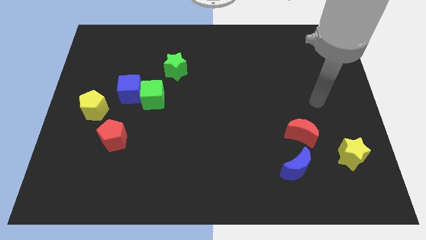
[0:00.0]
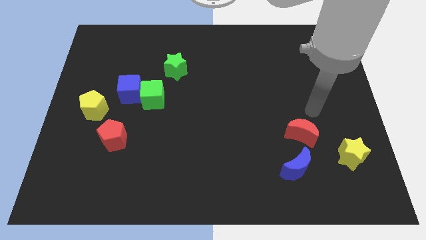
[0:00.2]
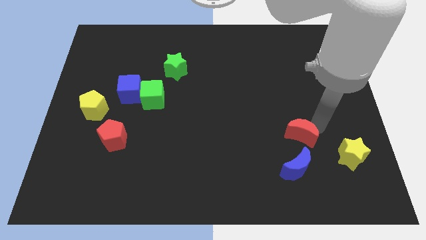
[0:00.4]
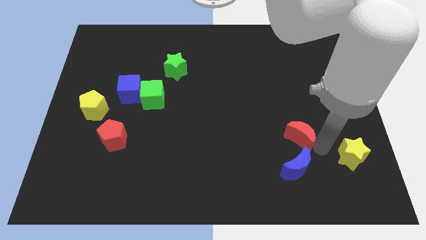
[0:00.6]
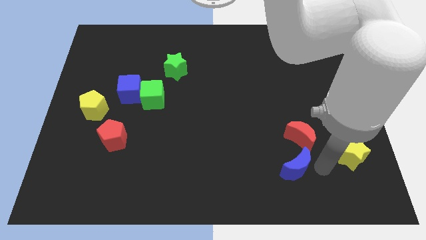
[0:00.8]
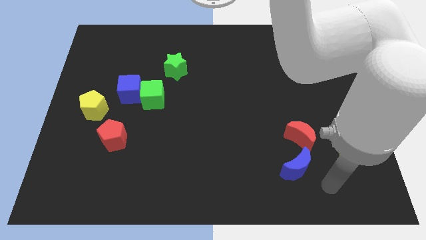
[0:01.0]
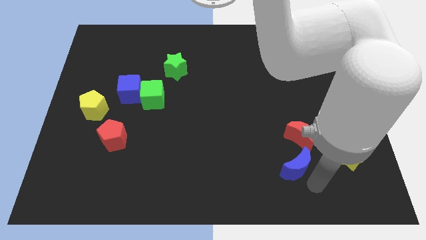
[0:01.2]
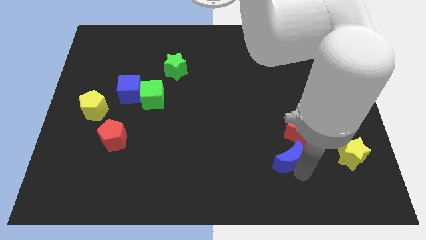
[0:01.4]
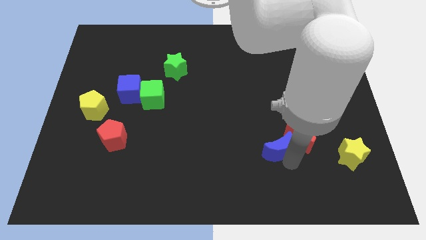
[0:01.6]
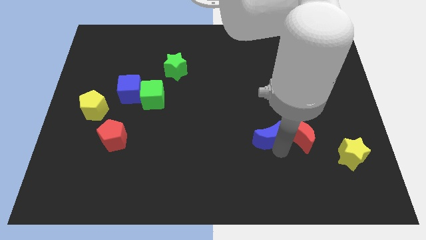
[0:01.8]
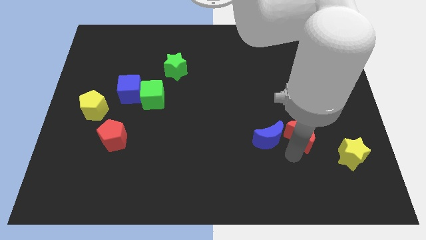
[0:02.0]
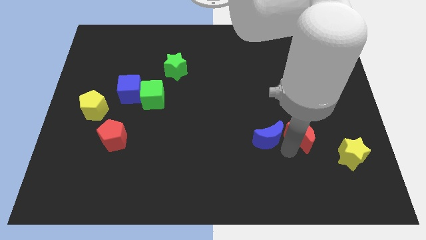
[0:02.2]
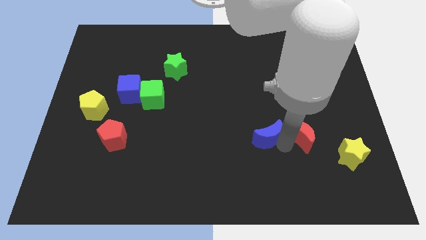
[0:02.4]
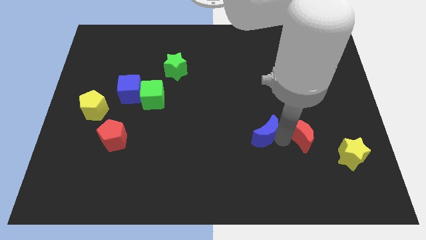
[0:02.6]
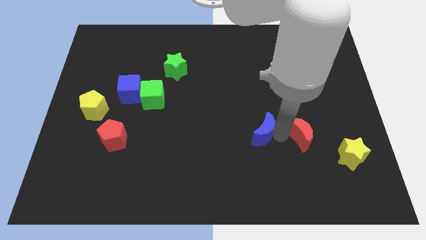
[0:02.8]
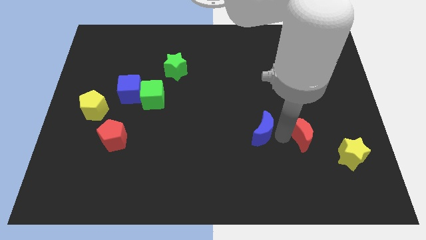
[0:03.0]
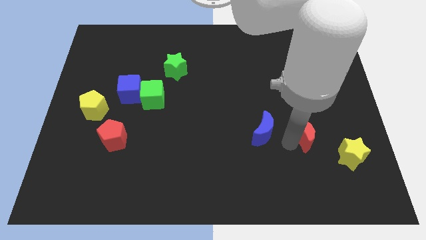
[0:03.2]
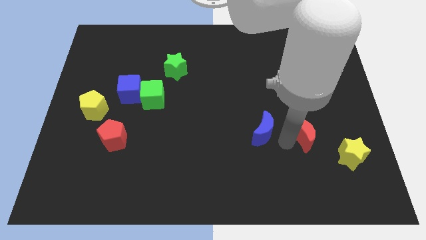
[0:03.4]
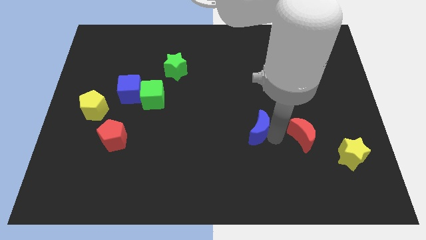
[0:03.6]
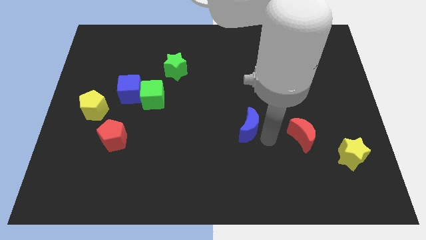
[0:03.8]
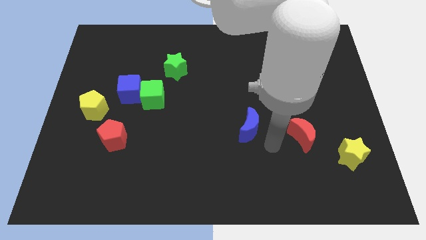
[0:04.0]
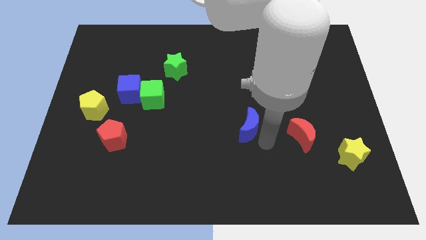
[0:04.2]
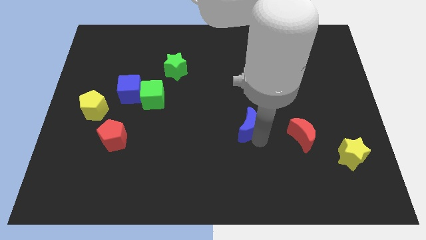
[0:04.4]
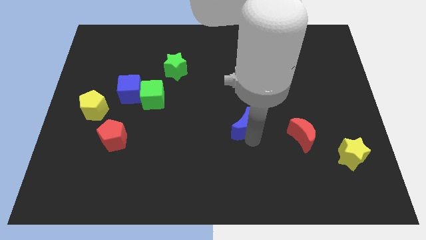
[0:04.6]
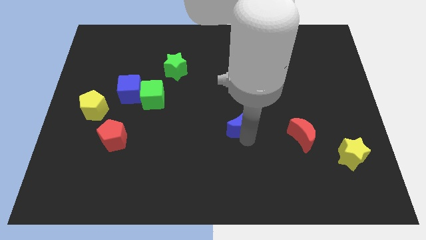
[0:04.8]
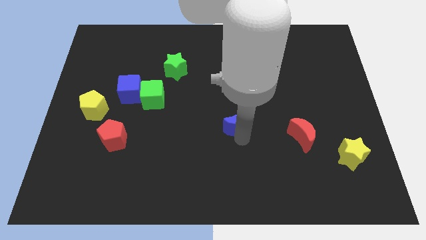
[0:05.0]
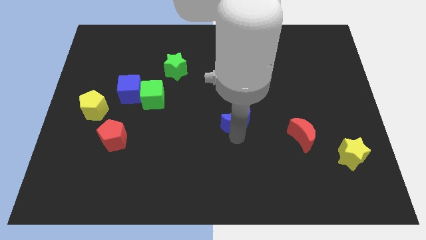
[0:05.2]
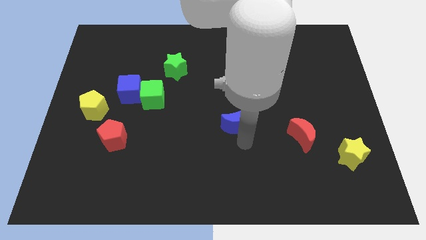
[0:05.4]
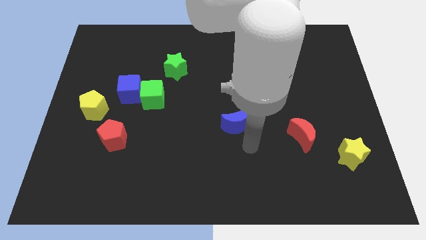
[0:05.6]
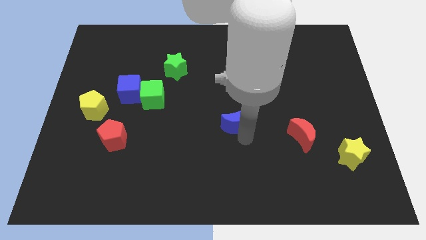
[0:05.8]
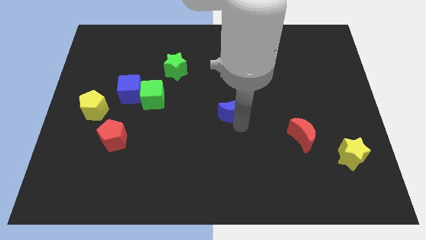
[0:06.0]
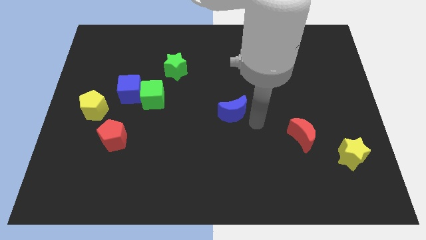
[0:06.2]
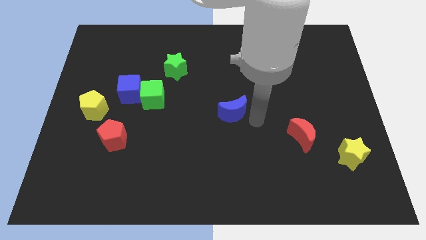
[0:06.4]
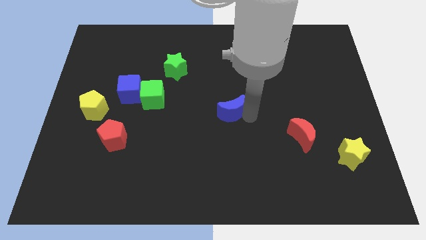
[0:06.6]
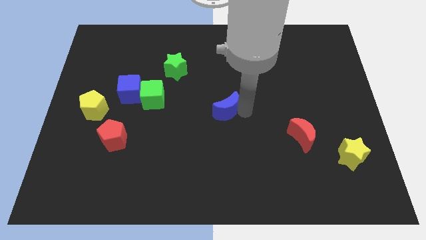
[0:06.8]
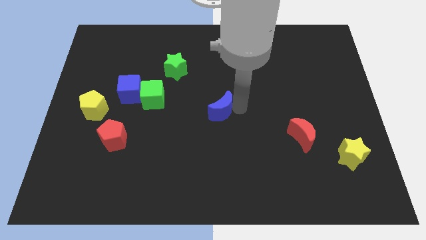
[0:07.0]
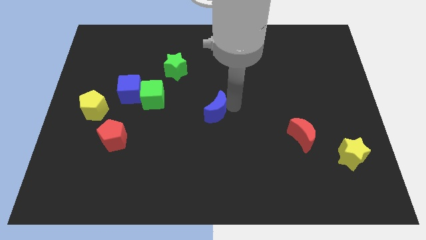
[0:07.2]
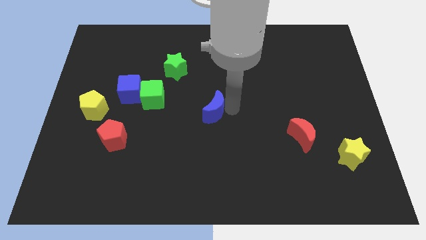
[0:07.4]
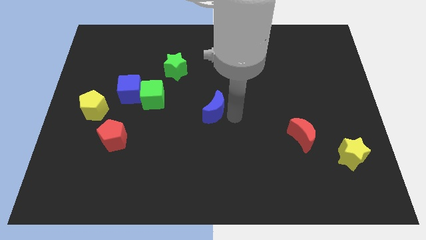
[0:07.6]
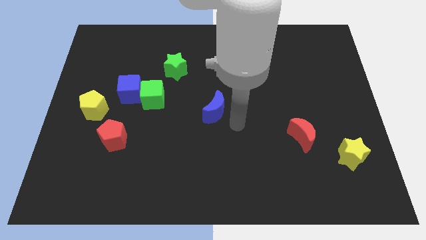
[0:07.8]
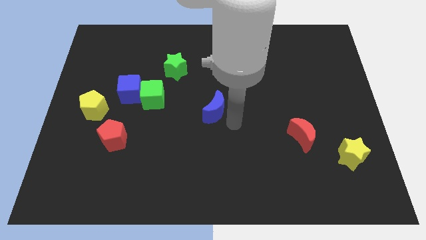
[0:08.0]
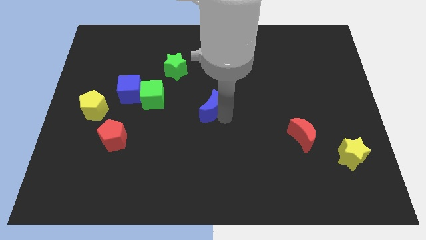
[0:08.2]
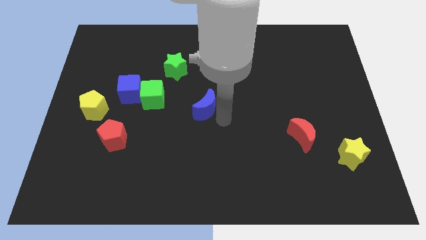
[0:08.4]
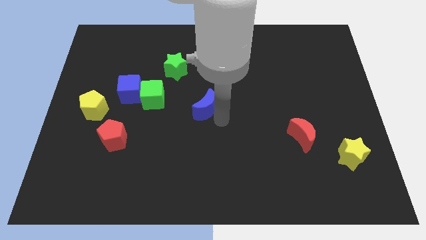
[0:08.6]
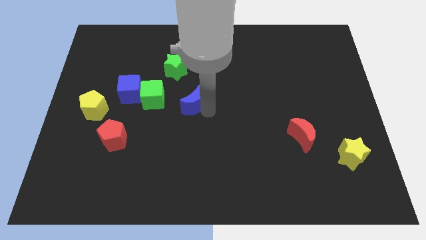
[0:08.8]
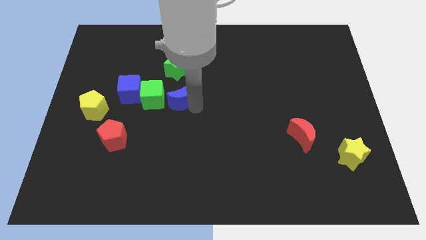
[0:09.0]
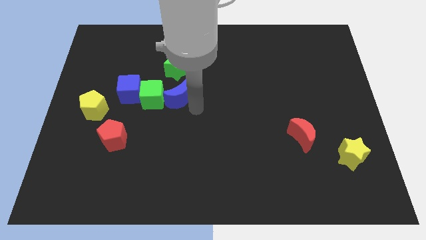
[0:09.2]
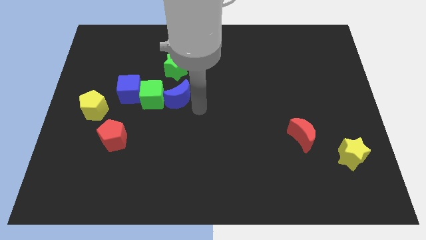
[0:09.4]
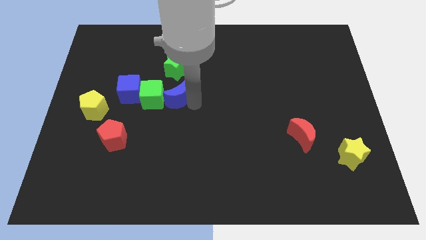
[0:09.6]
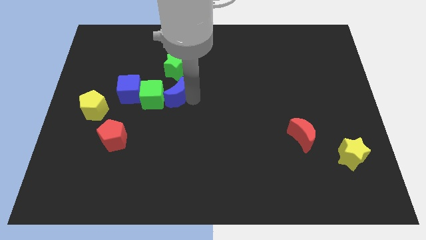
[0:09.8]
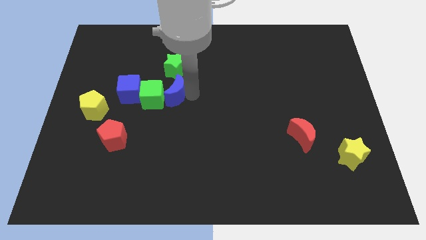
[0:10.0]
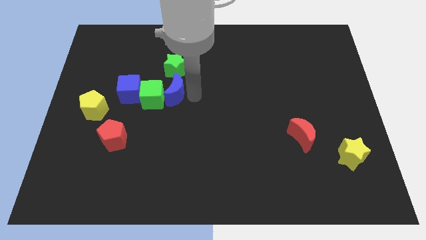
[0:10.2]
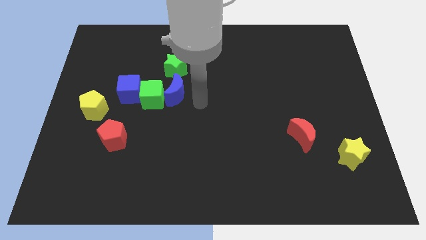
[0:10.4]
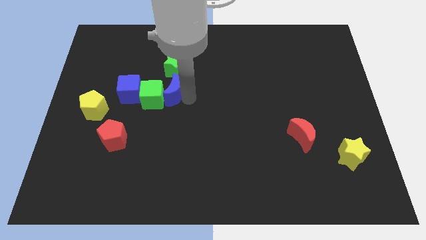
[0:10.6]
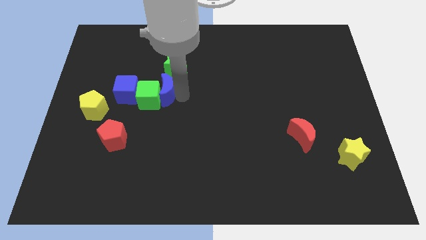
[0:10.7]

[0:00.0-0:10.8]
move the blue moon diagonally down and to the left of the green star

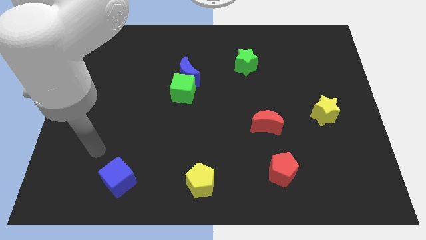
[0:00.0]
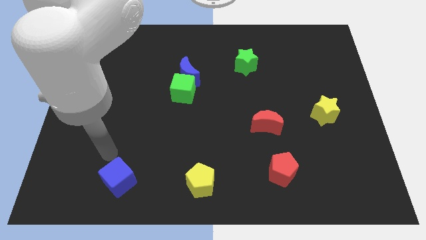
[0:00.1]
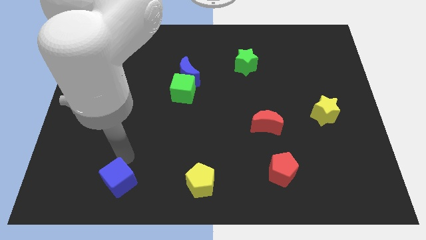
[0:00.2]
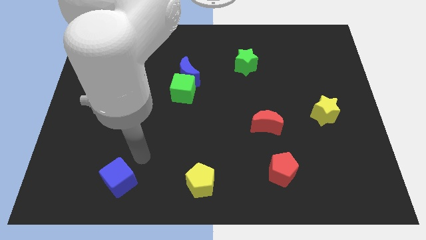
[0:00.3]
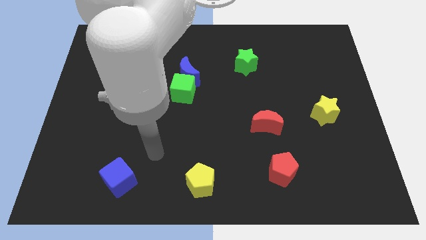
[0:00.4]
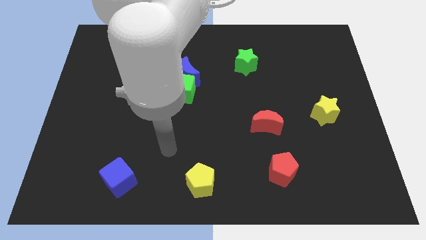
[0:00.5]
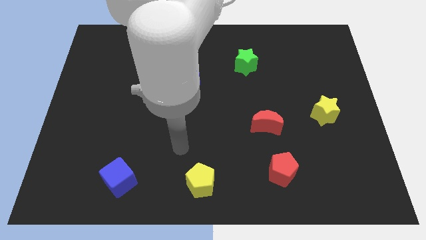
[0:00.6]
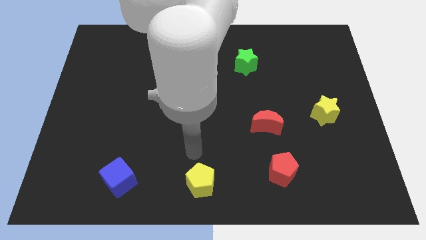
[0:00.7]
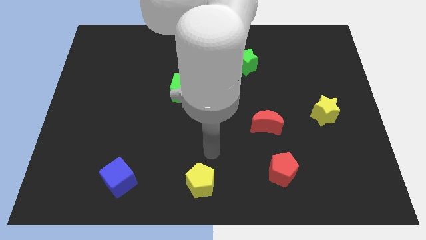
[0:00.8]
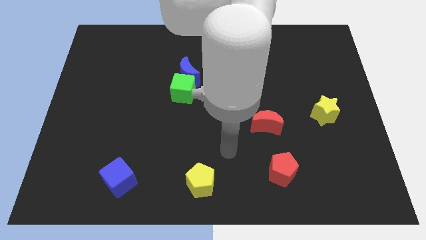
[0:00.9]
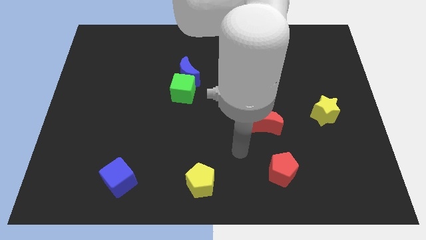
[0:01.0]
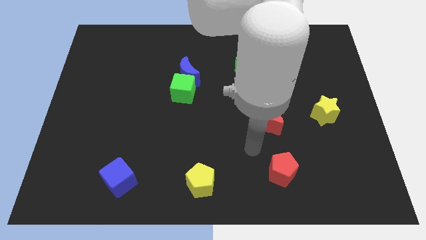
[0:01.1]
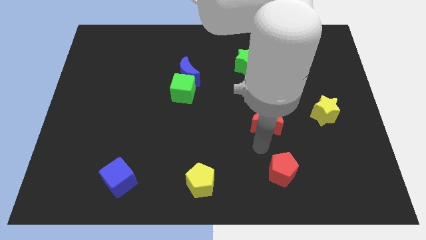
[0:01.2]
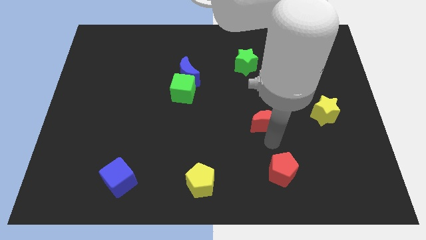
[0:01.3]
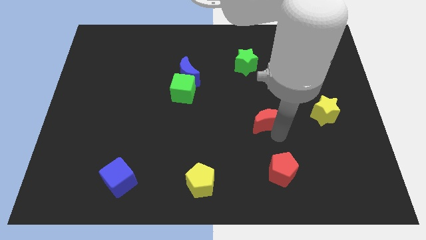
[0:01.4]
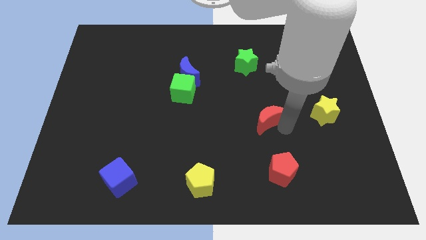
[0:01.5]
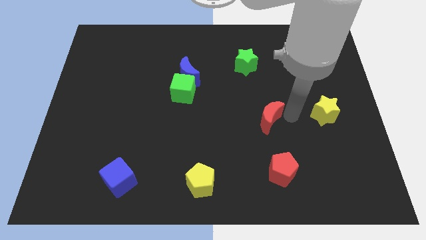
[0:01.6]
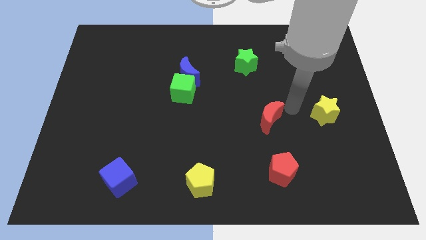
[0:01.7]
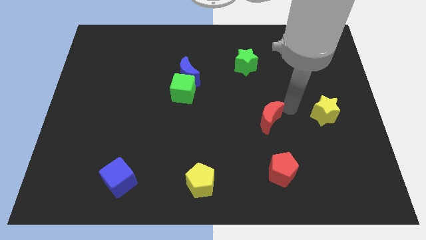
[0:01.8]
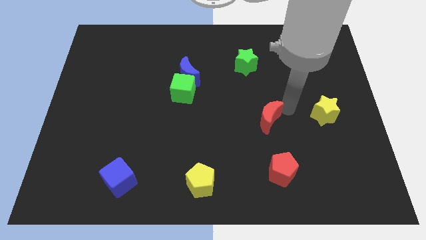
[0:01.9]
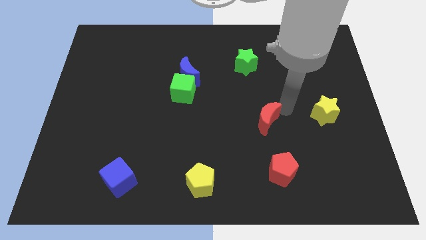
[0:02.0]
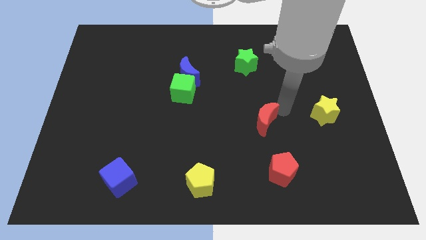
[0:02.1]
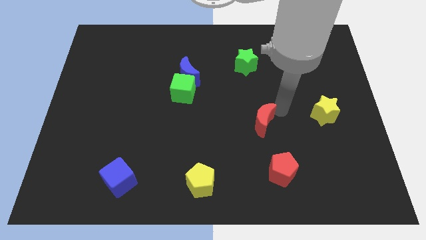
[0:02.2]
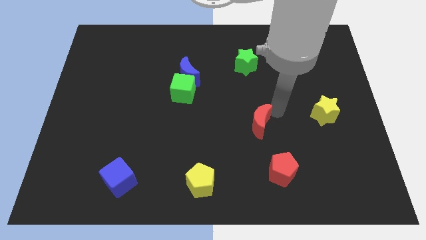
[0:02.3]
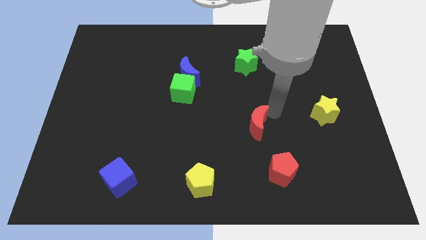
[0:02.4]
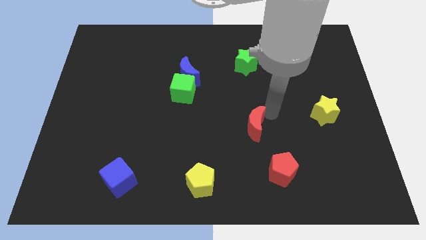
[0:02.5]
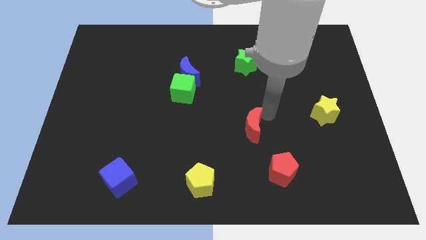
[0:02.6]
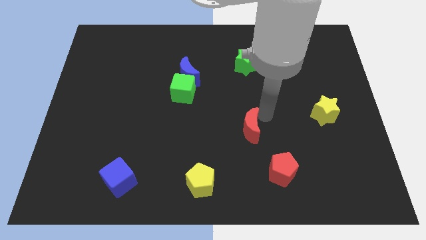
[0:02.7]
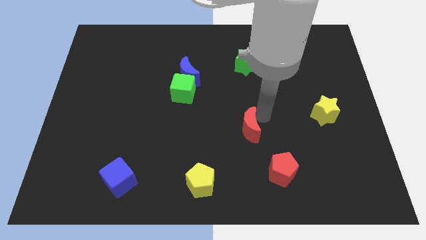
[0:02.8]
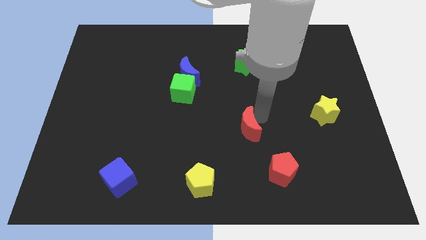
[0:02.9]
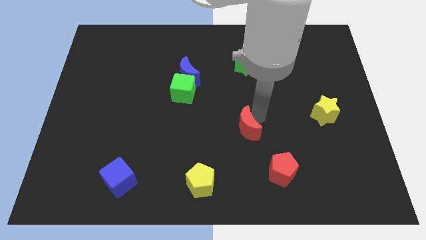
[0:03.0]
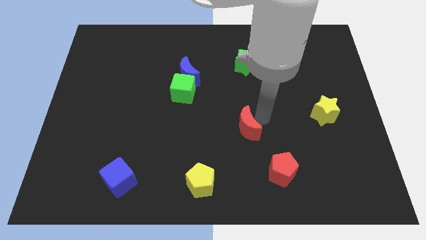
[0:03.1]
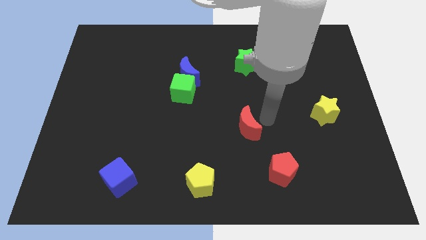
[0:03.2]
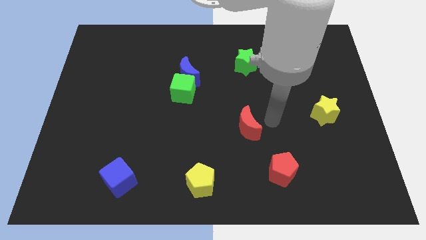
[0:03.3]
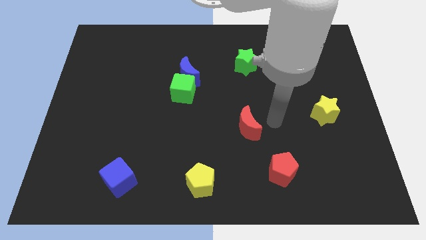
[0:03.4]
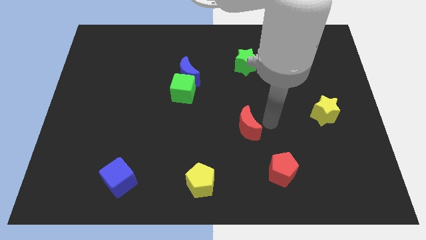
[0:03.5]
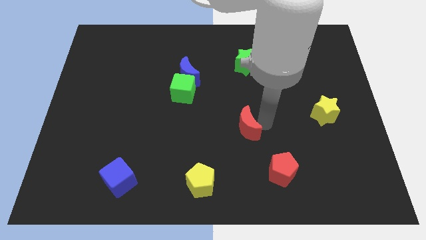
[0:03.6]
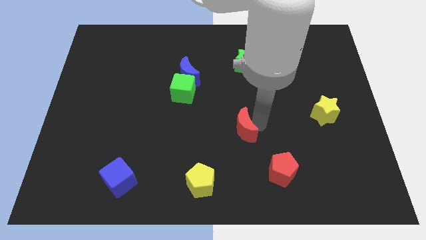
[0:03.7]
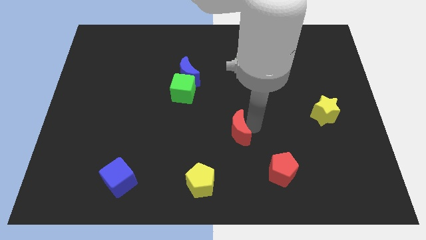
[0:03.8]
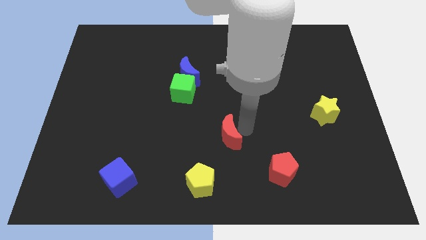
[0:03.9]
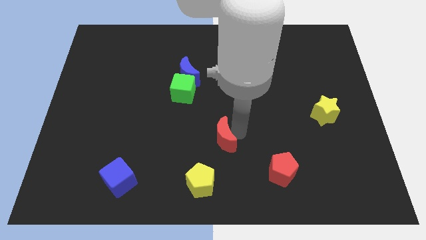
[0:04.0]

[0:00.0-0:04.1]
put the red moon above the yellow pentagon
